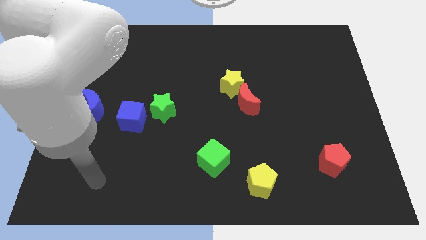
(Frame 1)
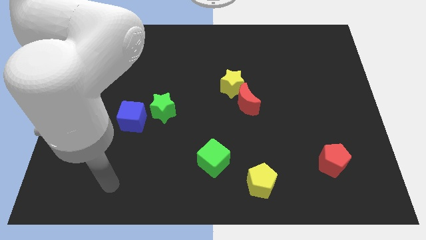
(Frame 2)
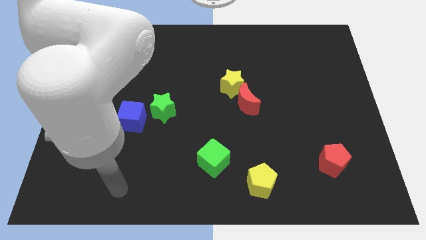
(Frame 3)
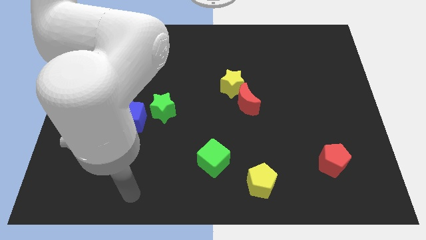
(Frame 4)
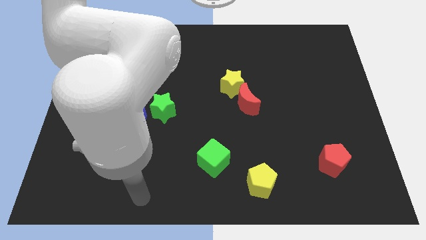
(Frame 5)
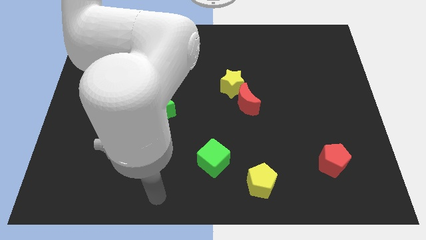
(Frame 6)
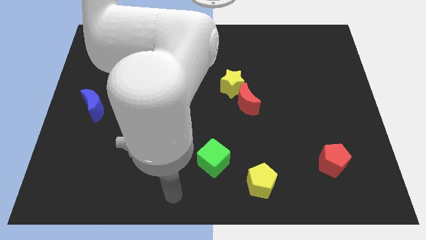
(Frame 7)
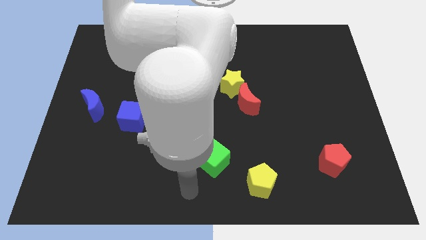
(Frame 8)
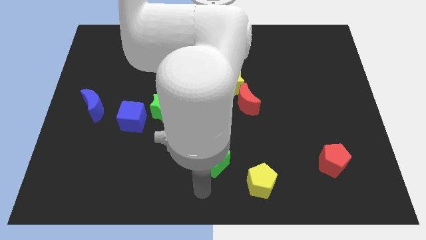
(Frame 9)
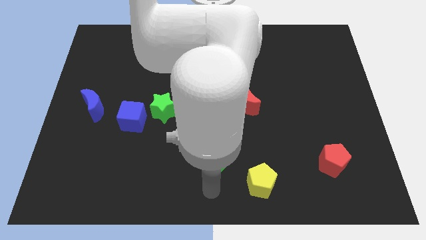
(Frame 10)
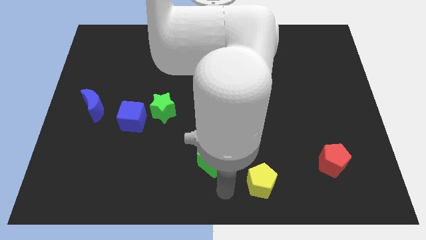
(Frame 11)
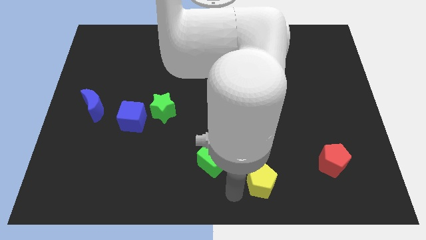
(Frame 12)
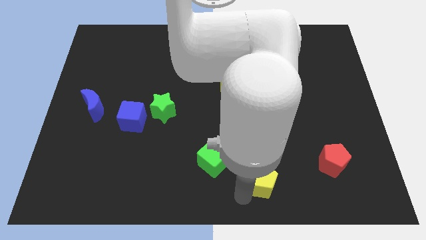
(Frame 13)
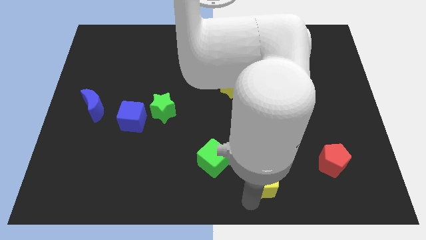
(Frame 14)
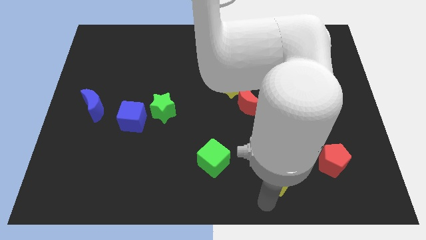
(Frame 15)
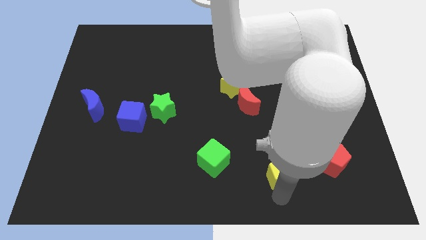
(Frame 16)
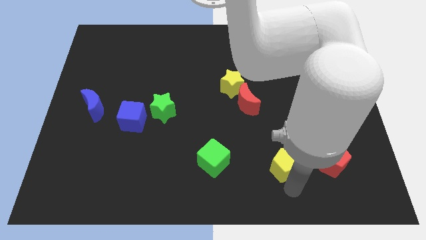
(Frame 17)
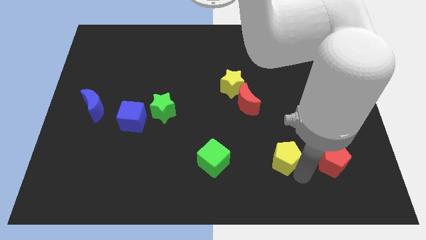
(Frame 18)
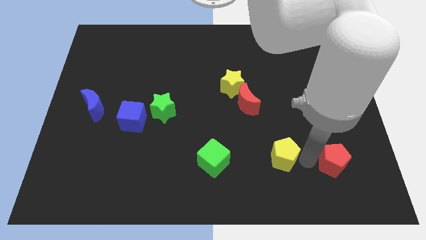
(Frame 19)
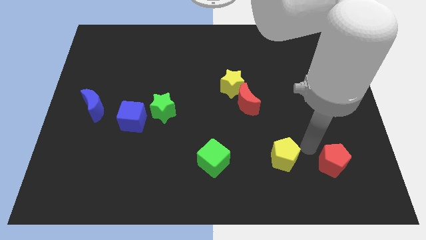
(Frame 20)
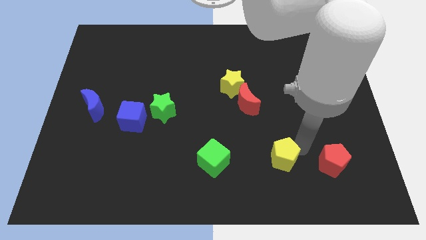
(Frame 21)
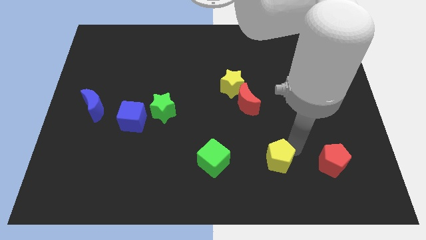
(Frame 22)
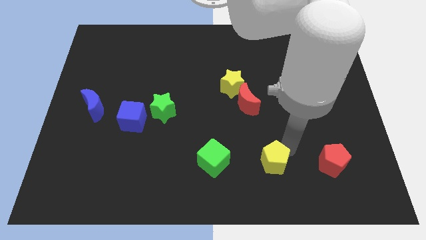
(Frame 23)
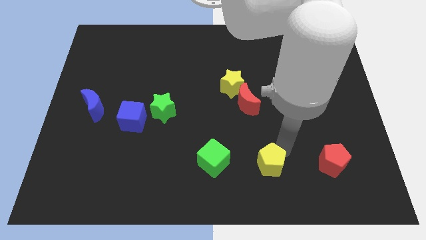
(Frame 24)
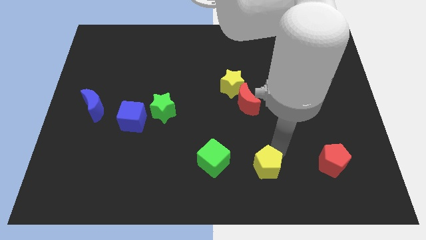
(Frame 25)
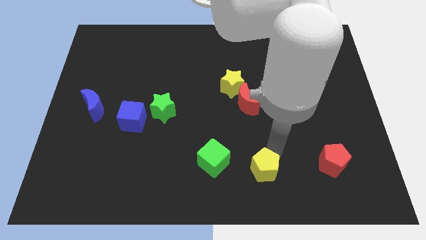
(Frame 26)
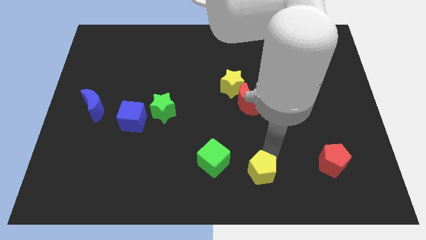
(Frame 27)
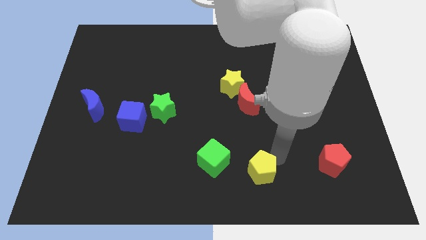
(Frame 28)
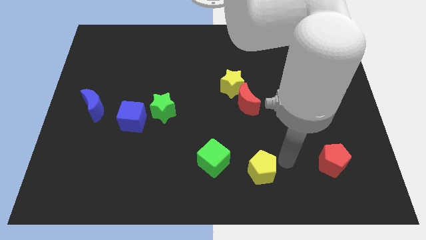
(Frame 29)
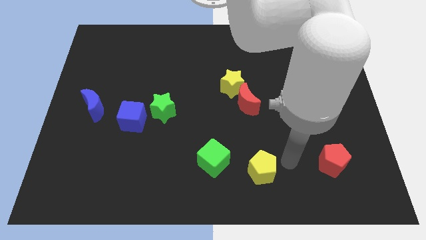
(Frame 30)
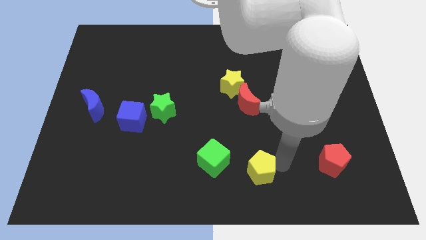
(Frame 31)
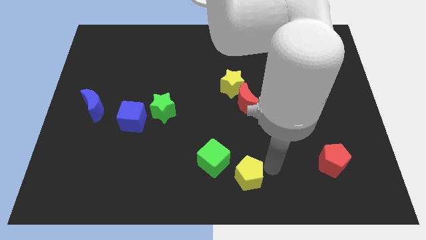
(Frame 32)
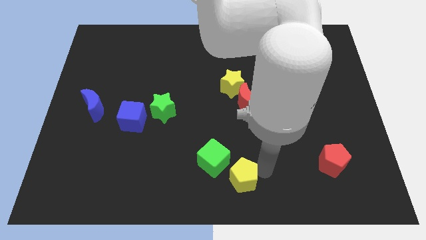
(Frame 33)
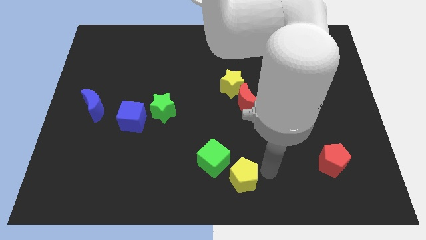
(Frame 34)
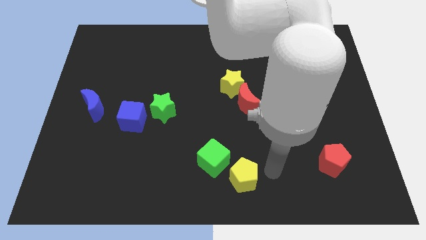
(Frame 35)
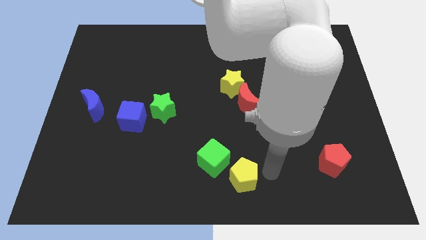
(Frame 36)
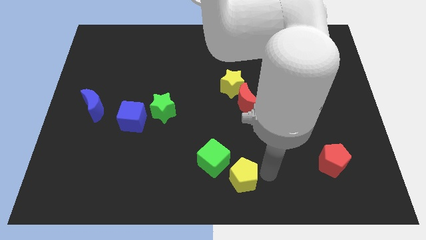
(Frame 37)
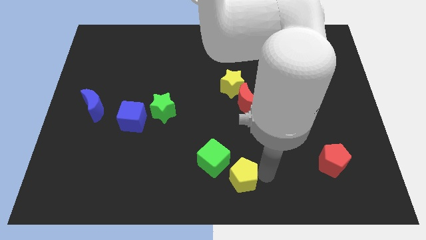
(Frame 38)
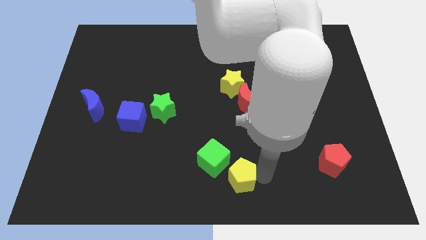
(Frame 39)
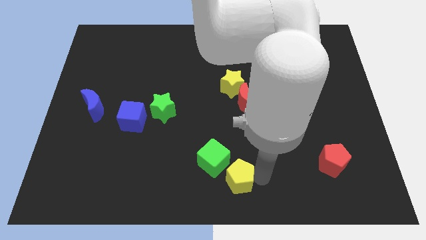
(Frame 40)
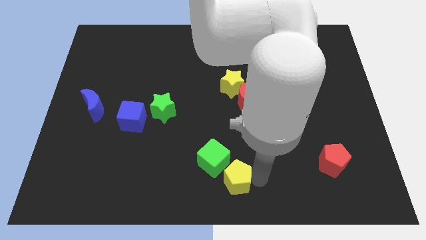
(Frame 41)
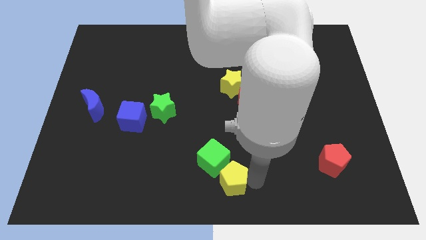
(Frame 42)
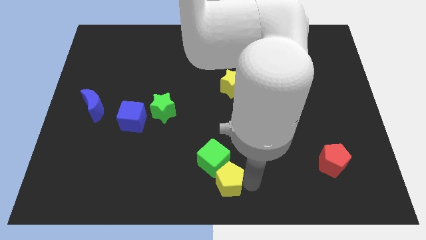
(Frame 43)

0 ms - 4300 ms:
slide the yellow pentagon a bit to the left

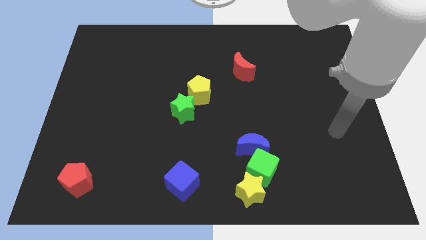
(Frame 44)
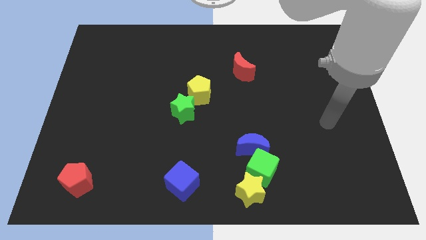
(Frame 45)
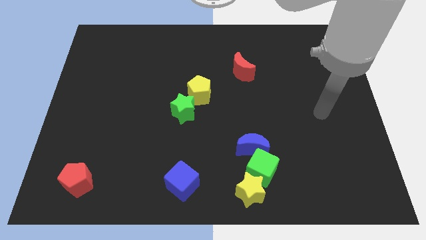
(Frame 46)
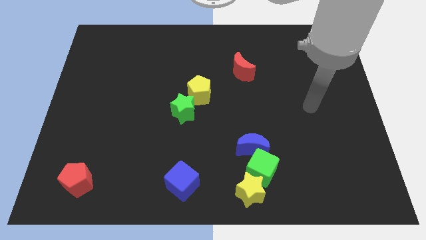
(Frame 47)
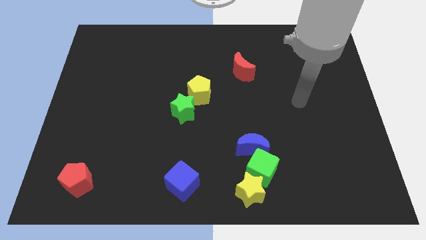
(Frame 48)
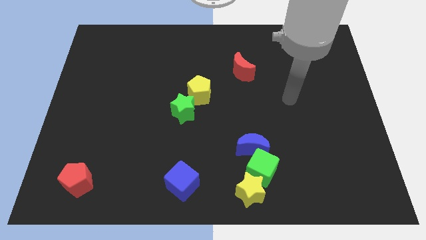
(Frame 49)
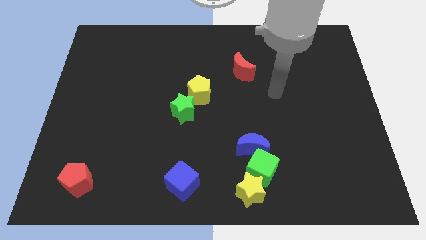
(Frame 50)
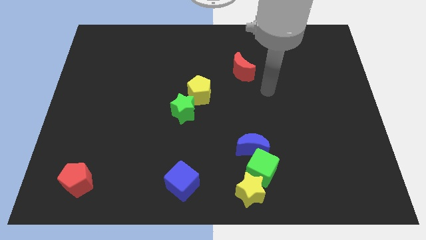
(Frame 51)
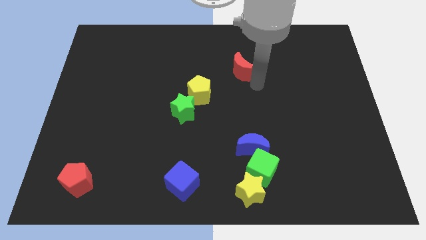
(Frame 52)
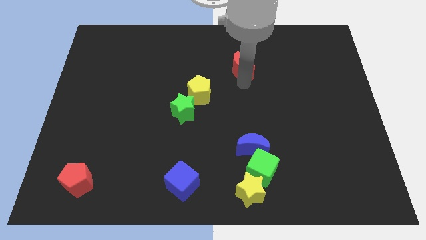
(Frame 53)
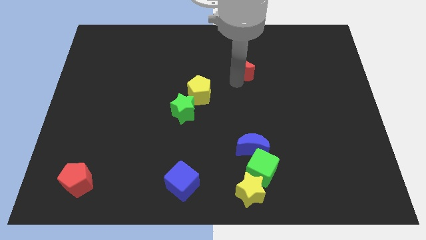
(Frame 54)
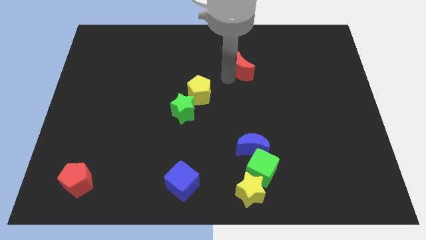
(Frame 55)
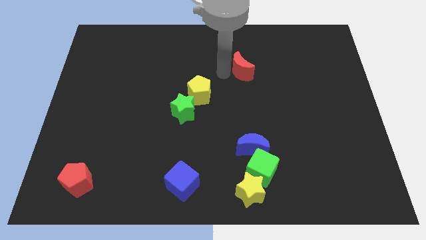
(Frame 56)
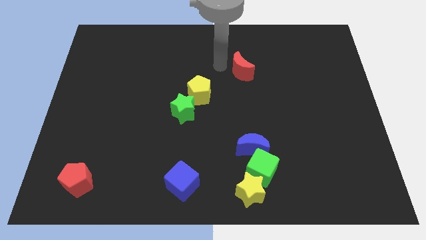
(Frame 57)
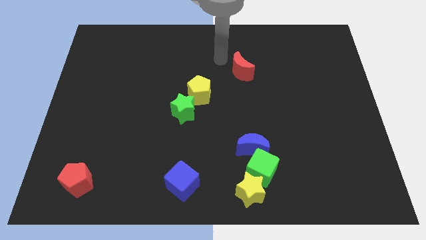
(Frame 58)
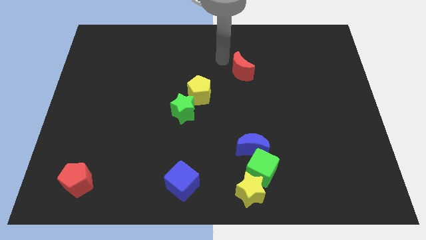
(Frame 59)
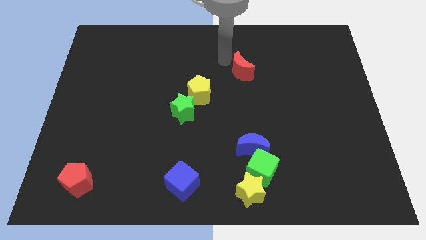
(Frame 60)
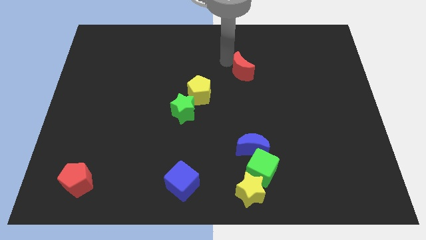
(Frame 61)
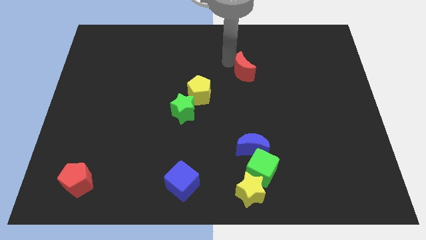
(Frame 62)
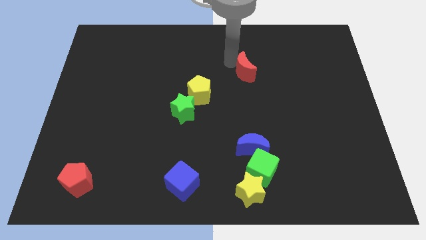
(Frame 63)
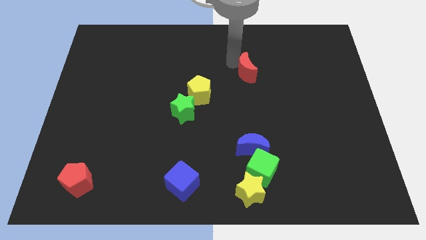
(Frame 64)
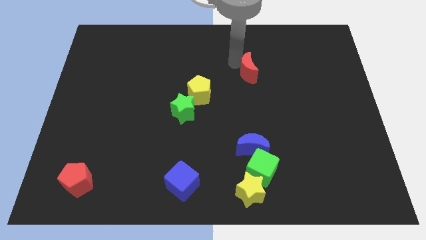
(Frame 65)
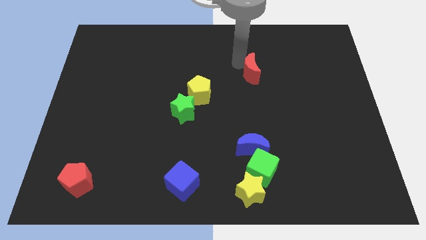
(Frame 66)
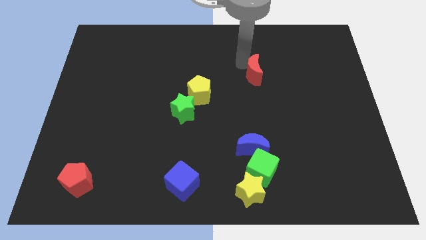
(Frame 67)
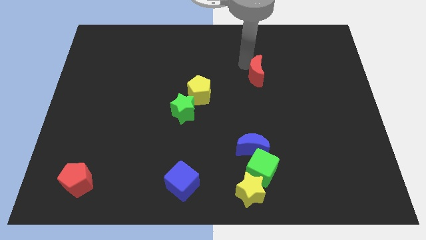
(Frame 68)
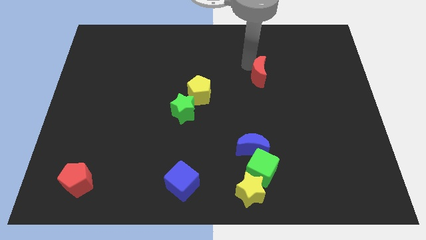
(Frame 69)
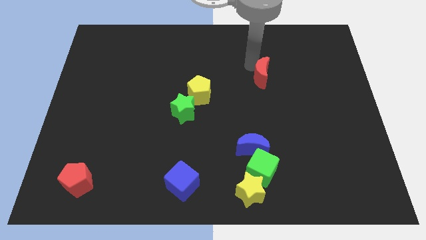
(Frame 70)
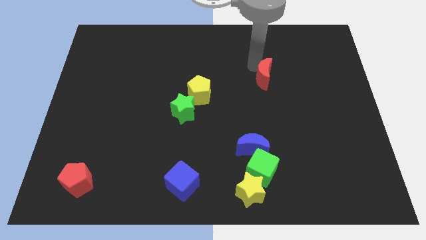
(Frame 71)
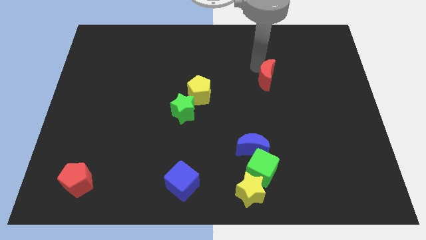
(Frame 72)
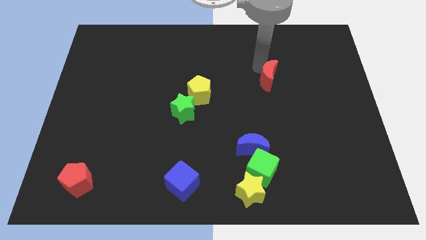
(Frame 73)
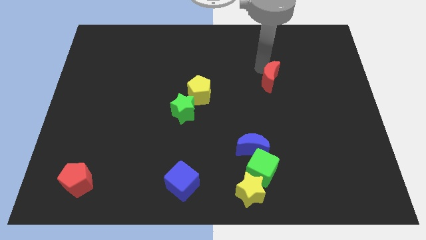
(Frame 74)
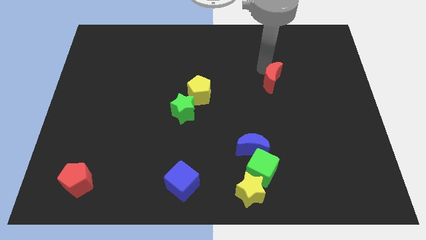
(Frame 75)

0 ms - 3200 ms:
move the red moon slightly diagonally down and right

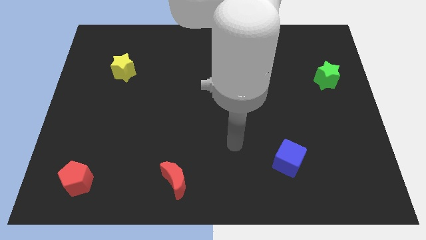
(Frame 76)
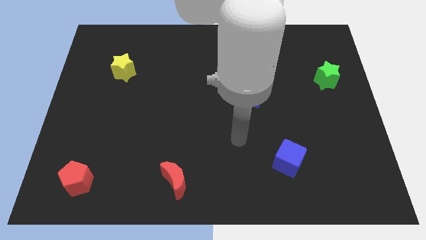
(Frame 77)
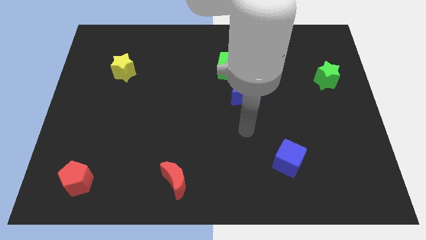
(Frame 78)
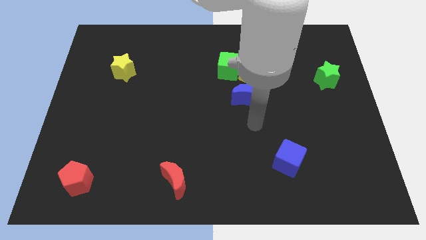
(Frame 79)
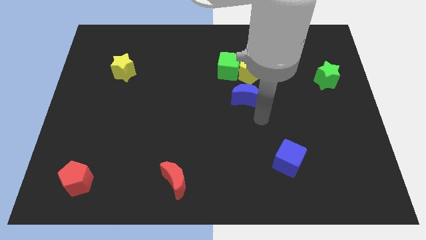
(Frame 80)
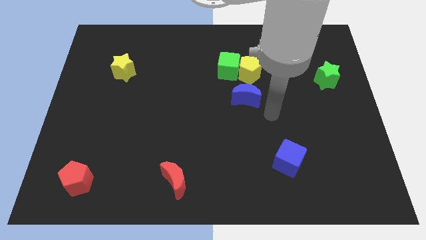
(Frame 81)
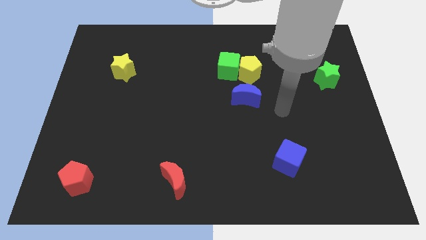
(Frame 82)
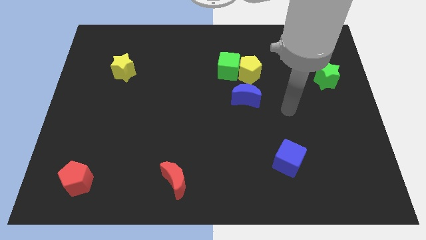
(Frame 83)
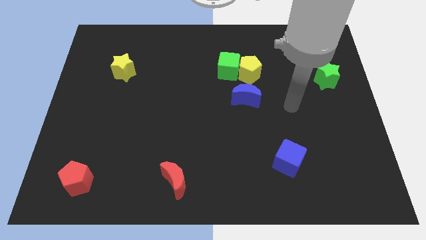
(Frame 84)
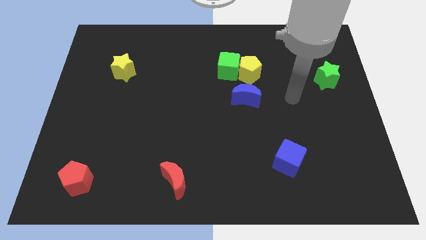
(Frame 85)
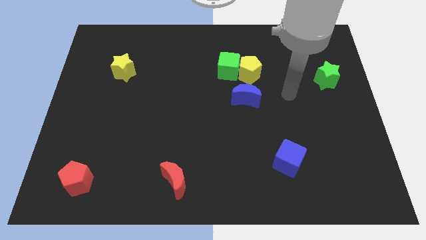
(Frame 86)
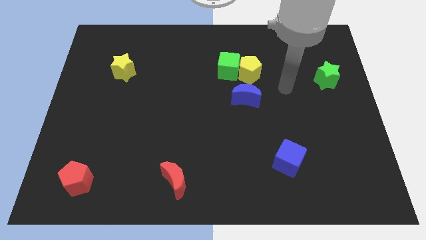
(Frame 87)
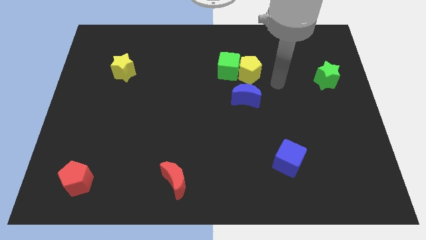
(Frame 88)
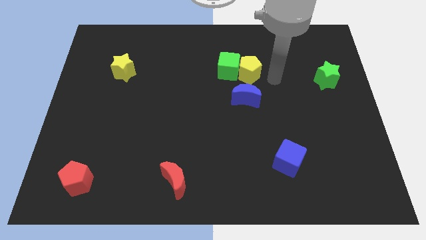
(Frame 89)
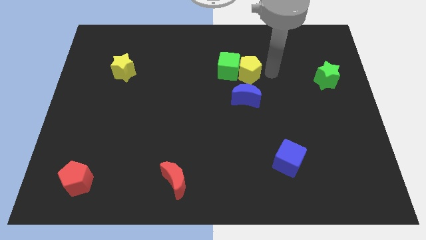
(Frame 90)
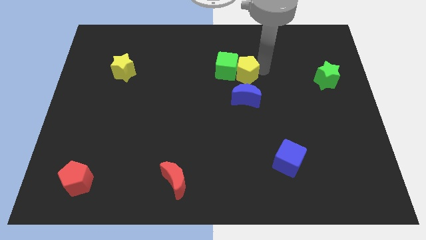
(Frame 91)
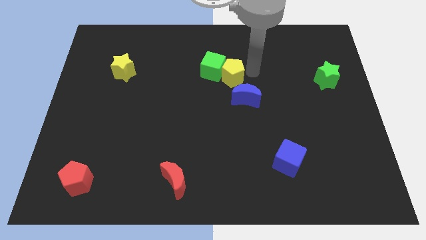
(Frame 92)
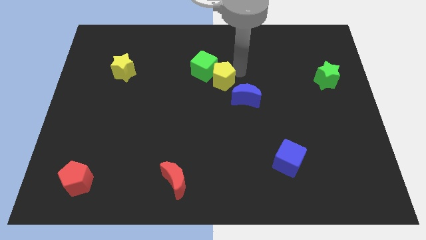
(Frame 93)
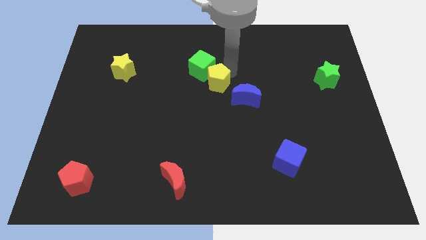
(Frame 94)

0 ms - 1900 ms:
slightly move the green cube left
